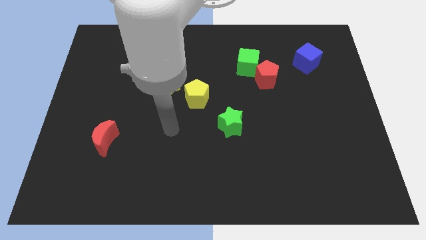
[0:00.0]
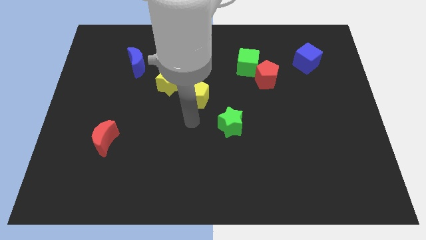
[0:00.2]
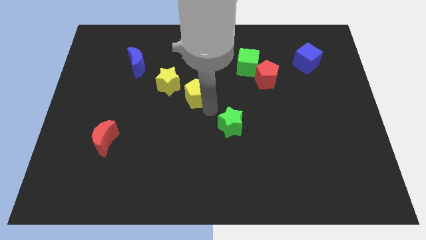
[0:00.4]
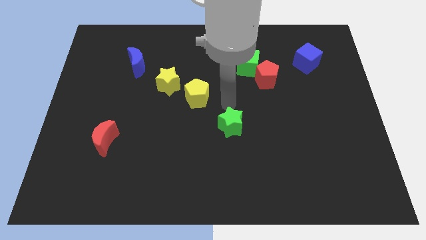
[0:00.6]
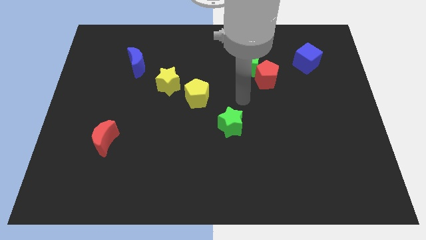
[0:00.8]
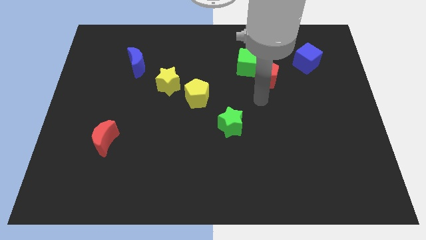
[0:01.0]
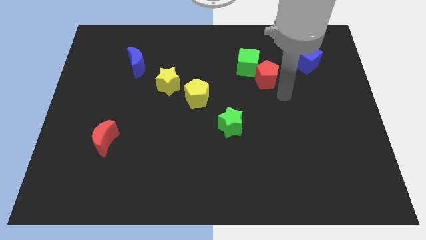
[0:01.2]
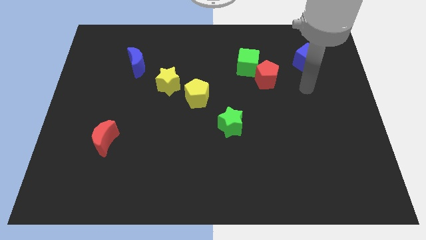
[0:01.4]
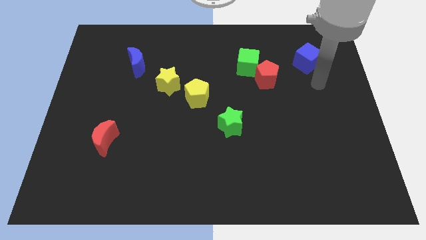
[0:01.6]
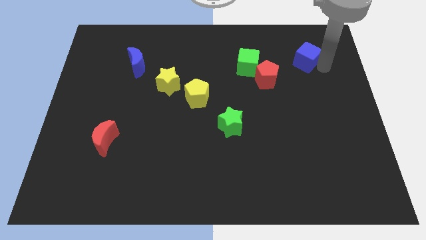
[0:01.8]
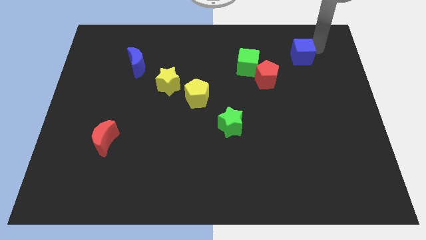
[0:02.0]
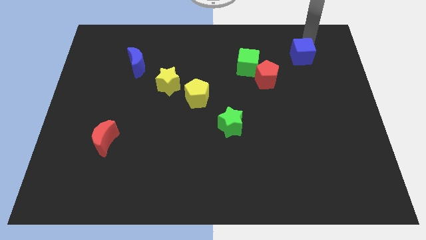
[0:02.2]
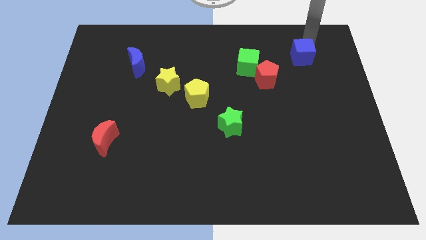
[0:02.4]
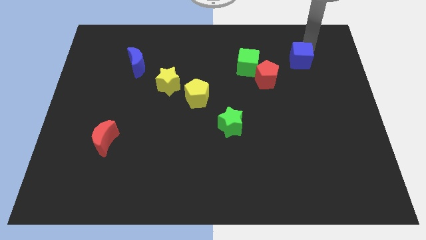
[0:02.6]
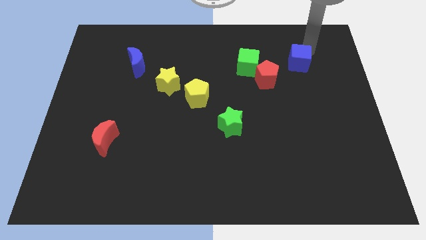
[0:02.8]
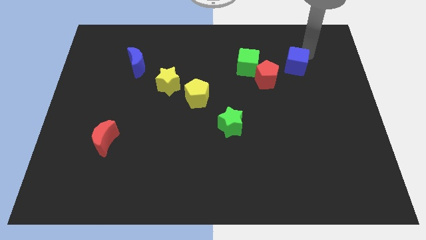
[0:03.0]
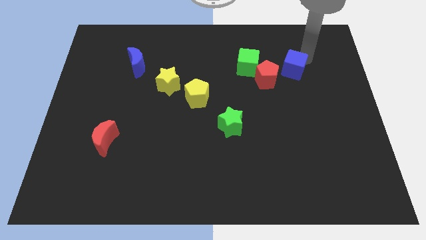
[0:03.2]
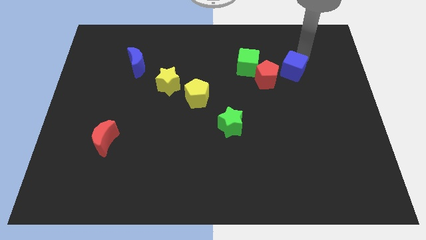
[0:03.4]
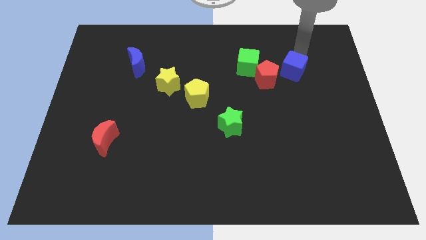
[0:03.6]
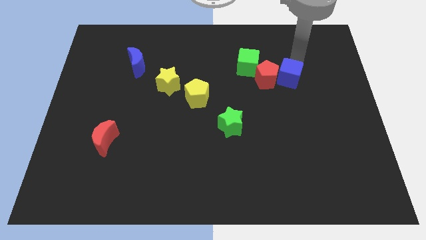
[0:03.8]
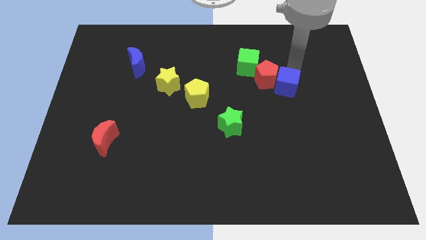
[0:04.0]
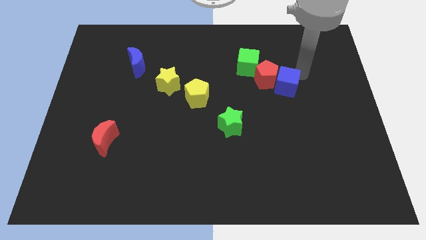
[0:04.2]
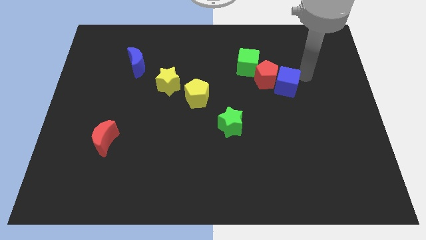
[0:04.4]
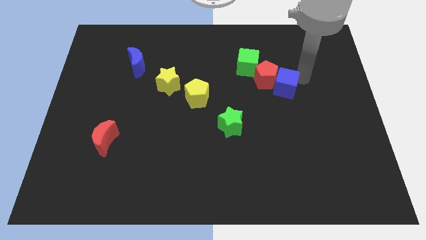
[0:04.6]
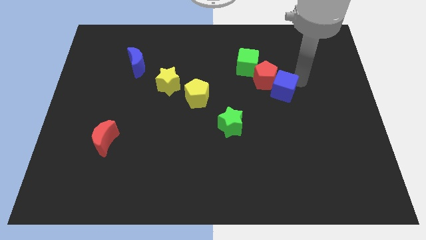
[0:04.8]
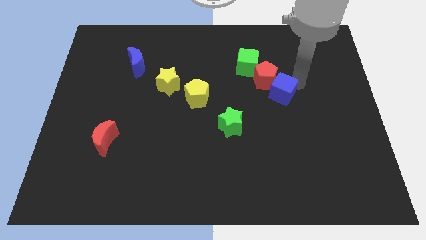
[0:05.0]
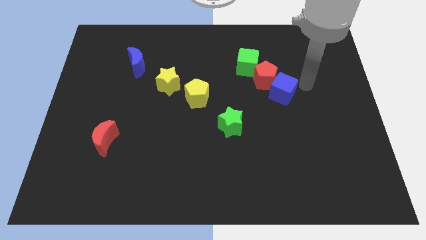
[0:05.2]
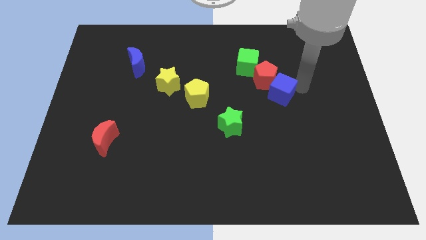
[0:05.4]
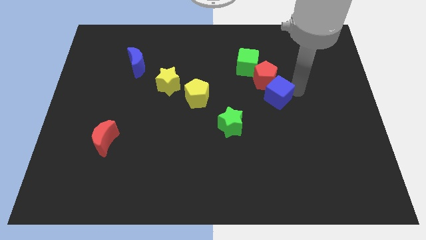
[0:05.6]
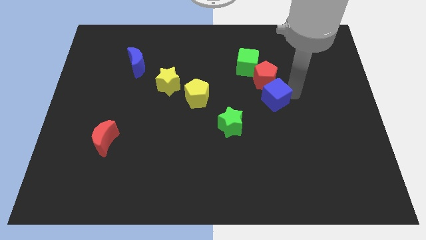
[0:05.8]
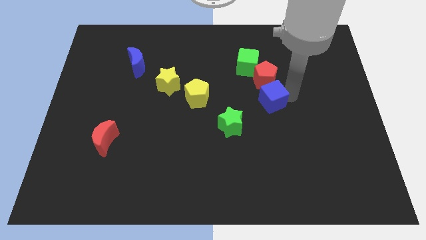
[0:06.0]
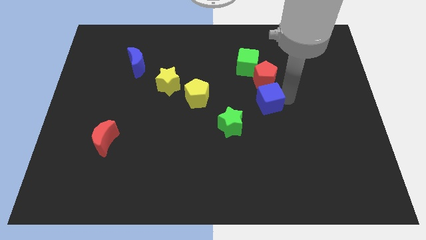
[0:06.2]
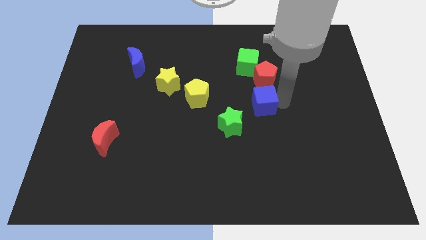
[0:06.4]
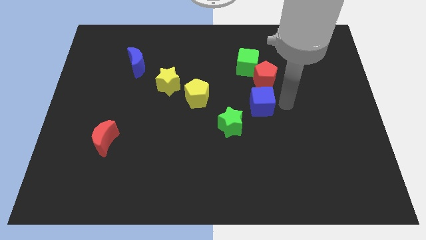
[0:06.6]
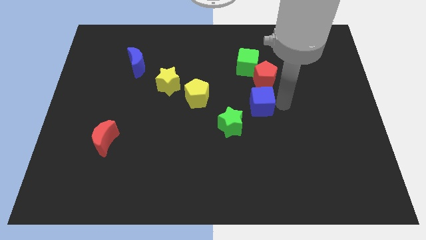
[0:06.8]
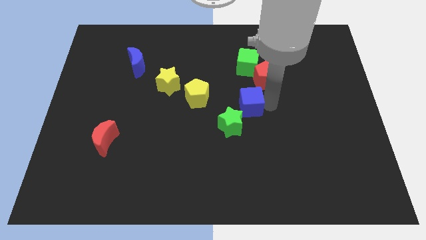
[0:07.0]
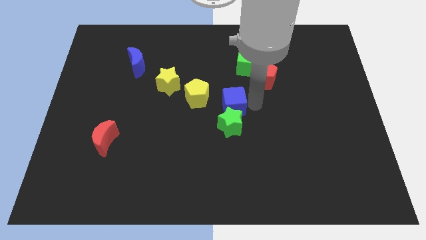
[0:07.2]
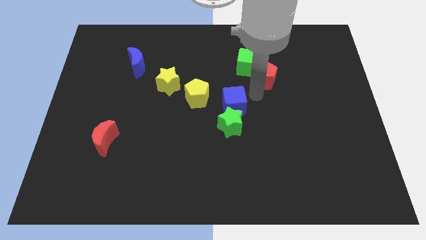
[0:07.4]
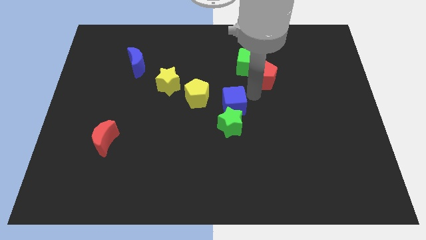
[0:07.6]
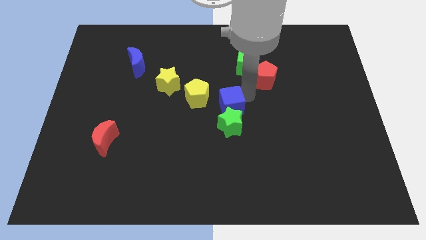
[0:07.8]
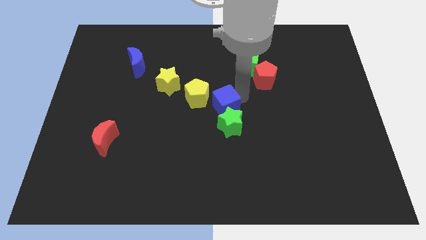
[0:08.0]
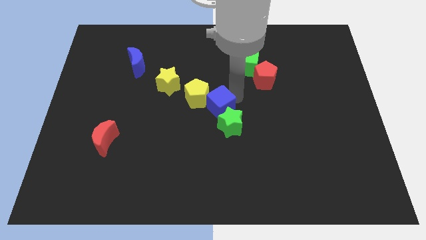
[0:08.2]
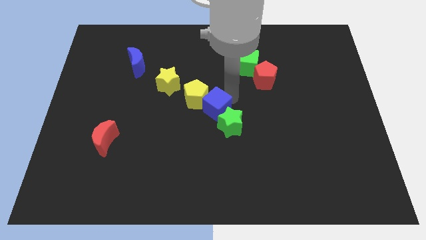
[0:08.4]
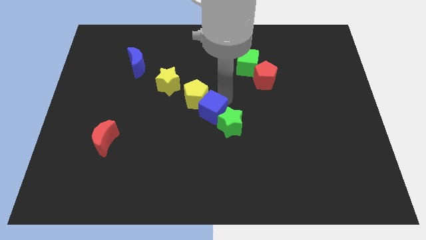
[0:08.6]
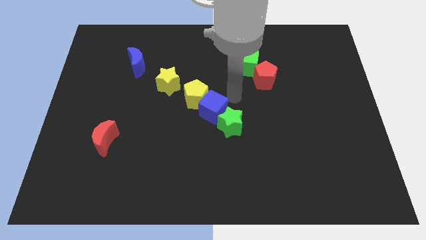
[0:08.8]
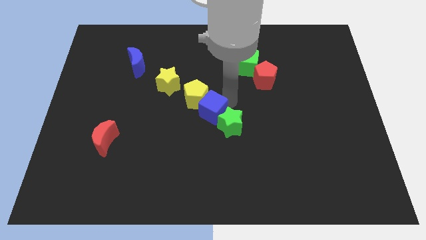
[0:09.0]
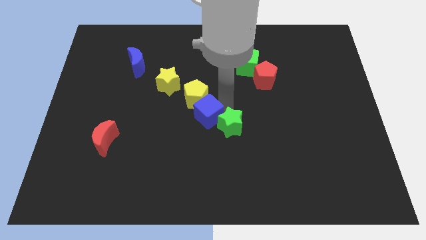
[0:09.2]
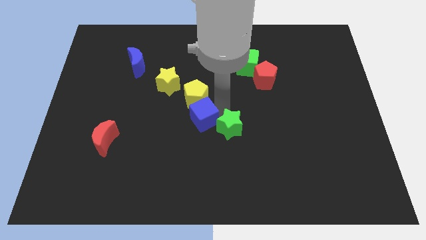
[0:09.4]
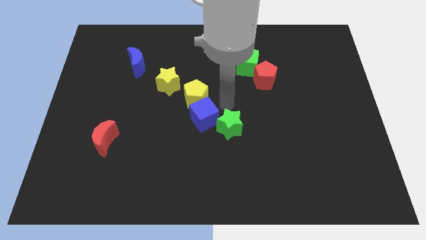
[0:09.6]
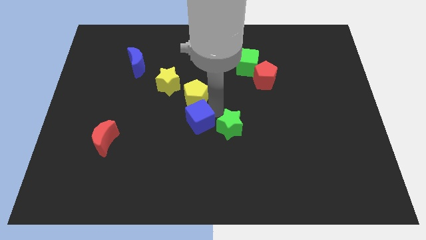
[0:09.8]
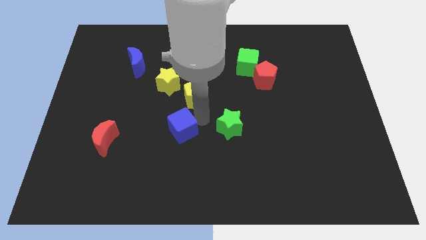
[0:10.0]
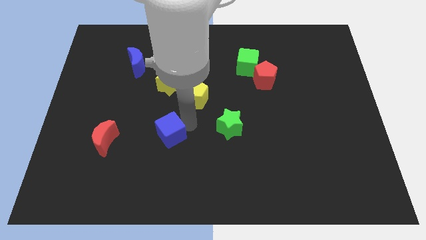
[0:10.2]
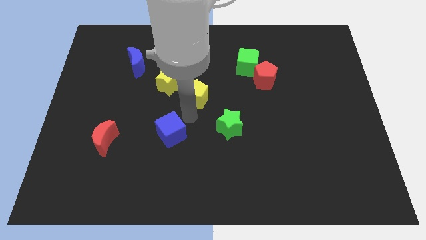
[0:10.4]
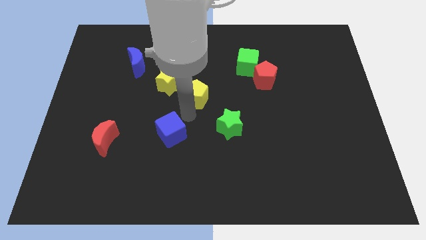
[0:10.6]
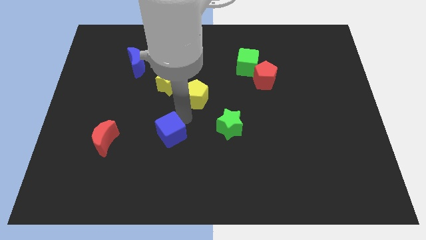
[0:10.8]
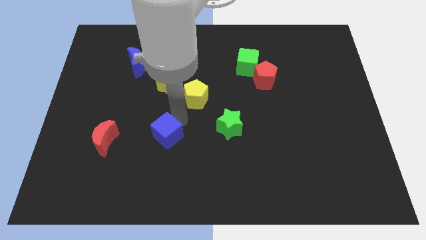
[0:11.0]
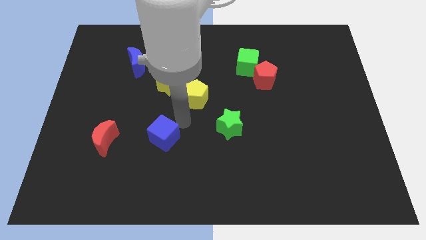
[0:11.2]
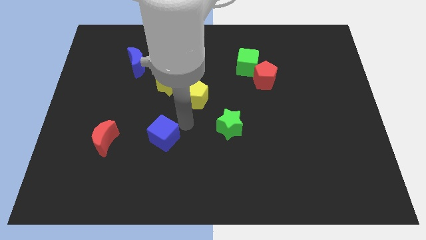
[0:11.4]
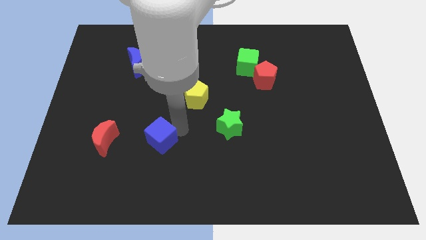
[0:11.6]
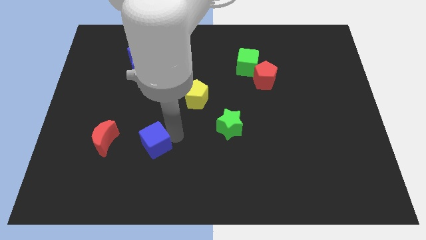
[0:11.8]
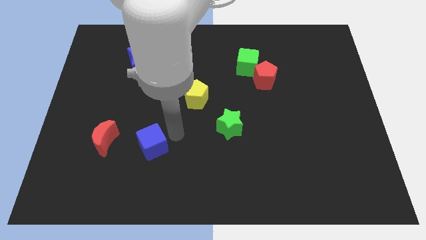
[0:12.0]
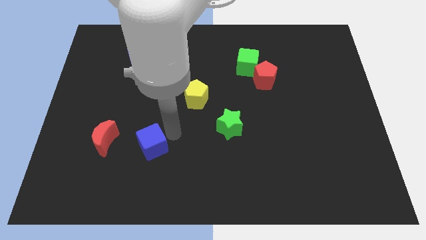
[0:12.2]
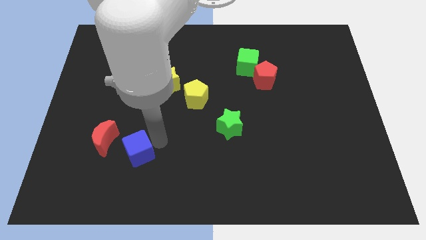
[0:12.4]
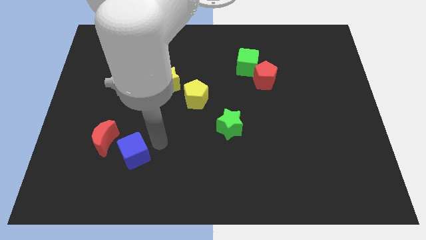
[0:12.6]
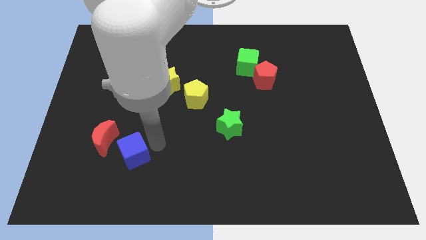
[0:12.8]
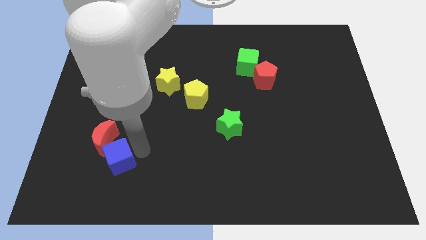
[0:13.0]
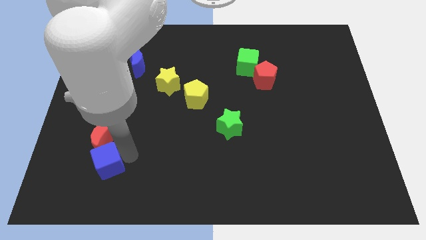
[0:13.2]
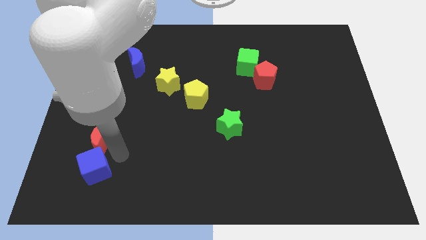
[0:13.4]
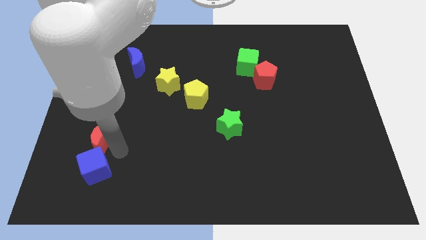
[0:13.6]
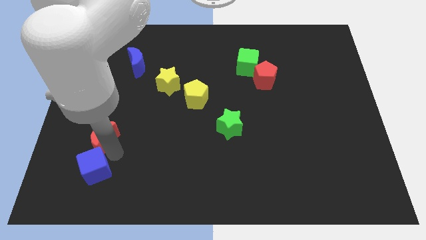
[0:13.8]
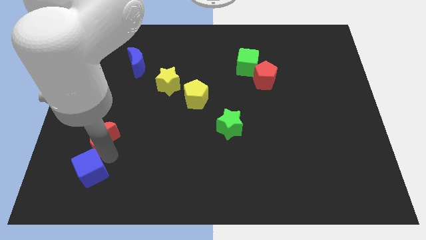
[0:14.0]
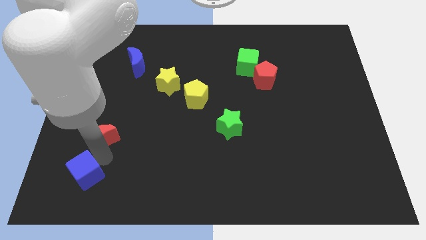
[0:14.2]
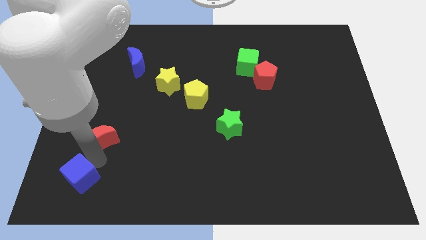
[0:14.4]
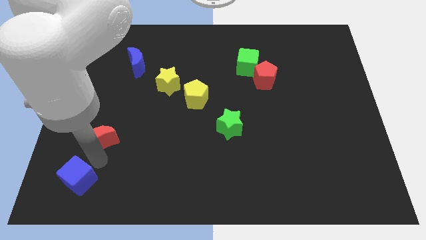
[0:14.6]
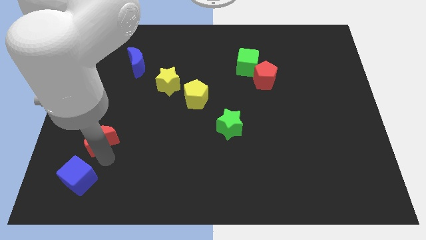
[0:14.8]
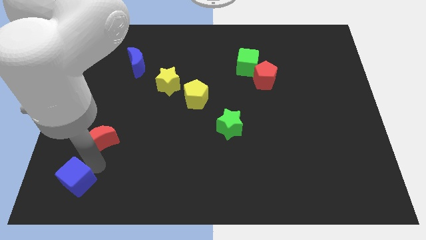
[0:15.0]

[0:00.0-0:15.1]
move the blue cube to the bottom left

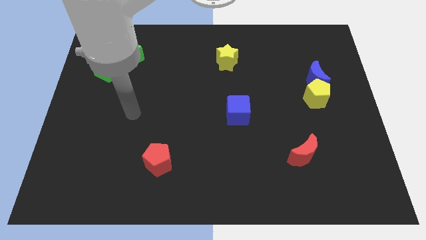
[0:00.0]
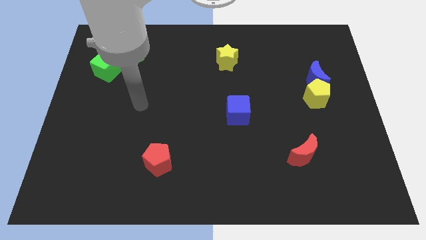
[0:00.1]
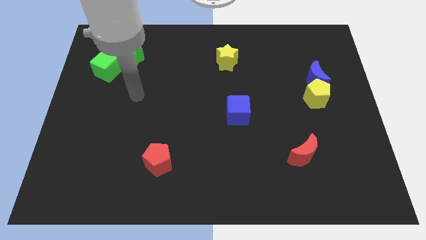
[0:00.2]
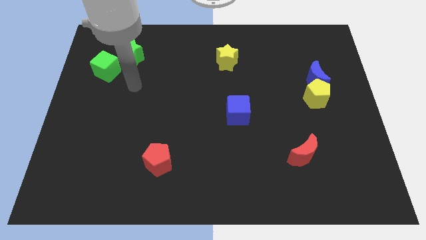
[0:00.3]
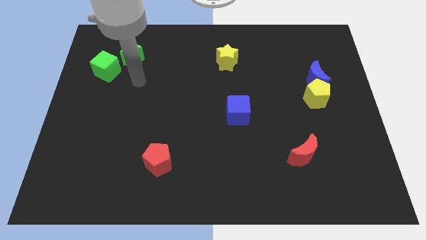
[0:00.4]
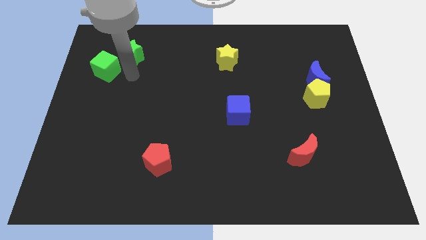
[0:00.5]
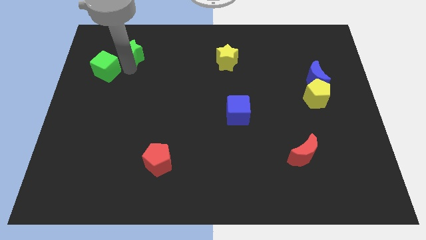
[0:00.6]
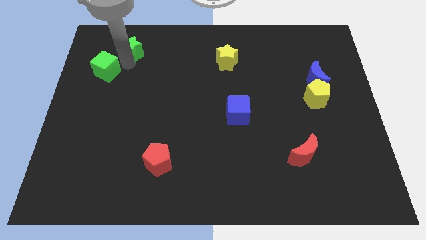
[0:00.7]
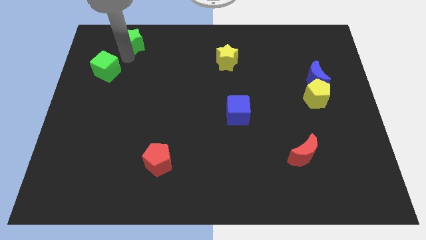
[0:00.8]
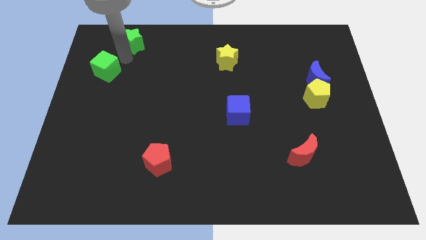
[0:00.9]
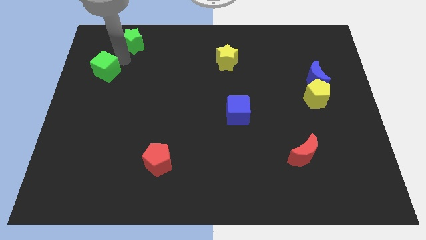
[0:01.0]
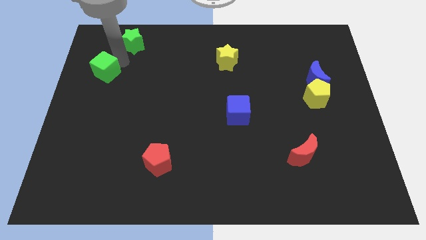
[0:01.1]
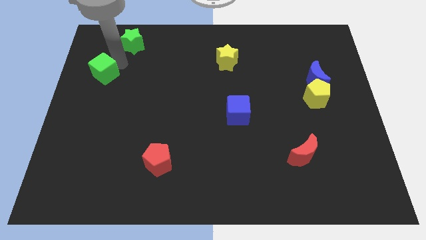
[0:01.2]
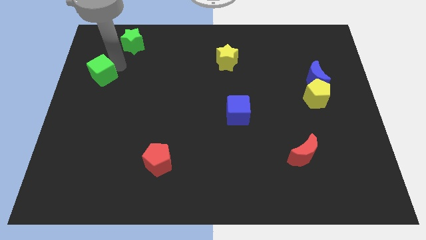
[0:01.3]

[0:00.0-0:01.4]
push the green cube to the left side
